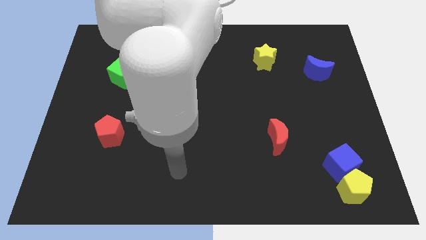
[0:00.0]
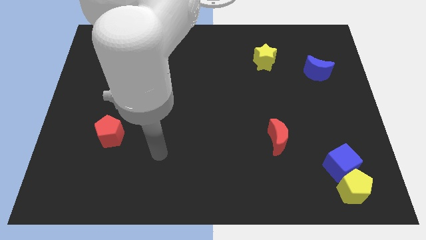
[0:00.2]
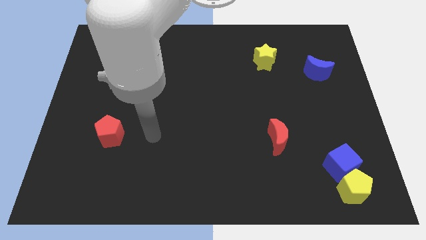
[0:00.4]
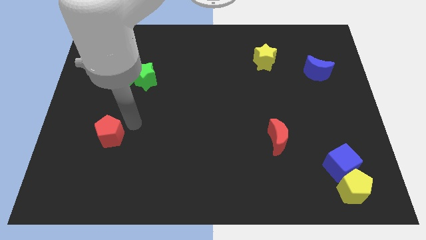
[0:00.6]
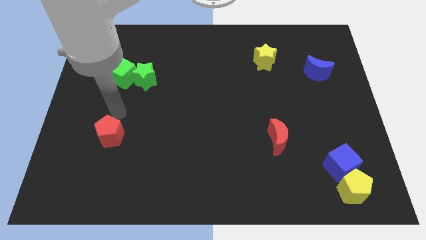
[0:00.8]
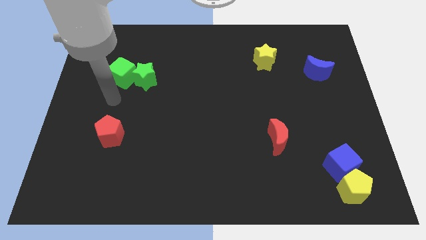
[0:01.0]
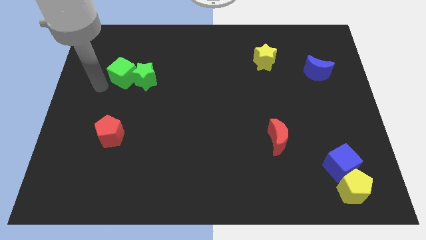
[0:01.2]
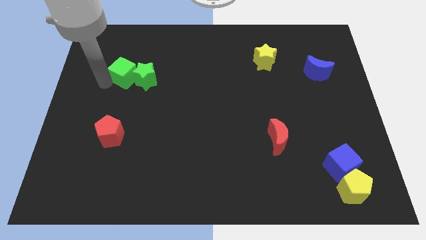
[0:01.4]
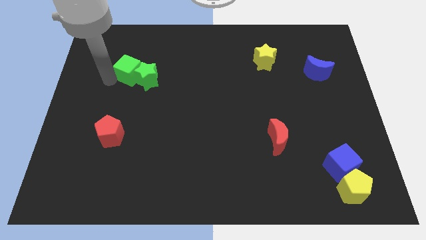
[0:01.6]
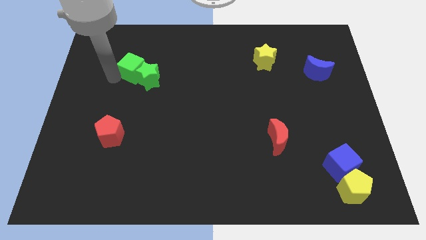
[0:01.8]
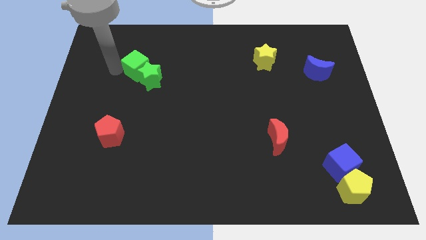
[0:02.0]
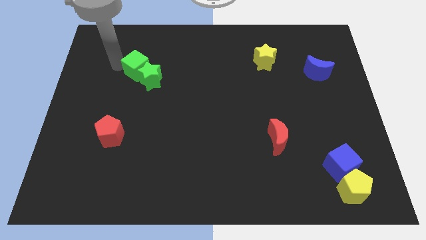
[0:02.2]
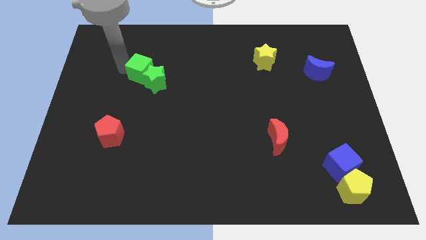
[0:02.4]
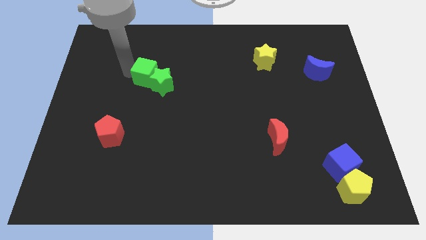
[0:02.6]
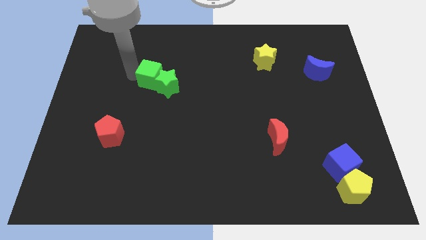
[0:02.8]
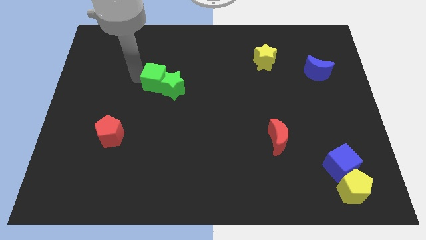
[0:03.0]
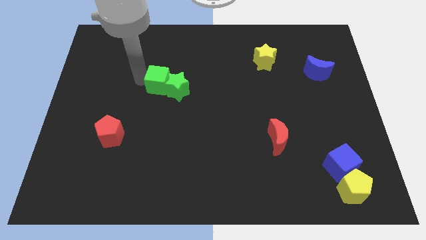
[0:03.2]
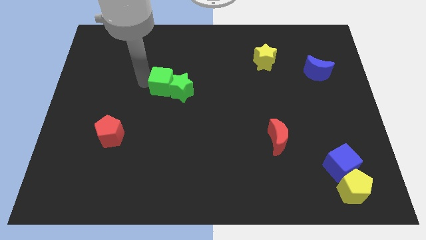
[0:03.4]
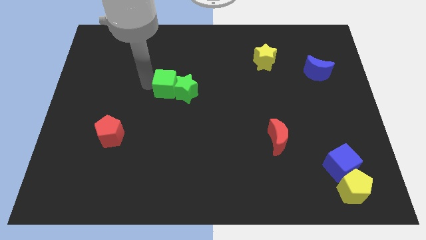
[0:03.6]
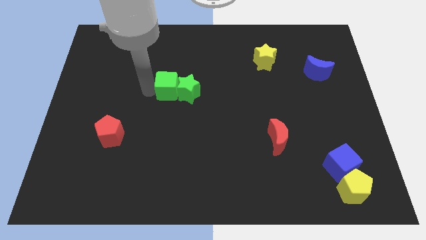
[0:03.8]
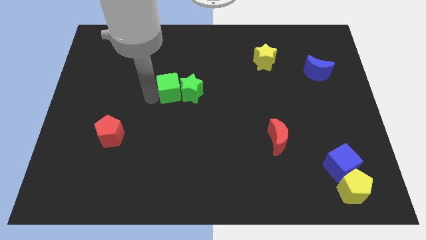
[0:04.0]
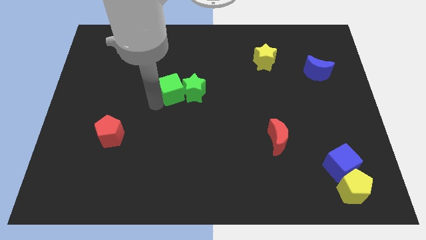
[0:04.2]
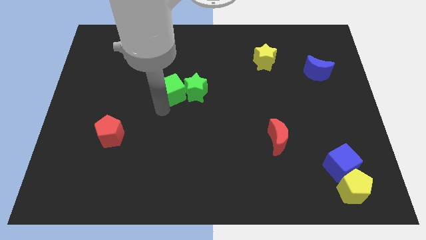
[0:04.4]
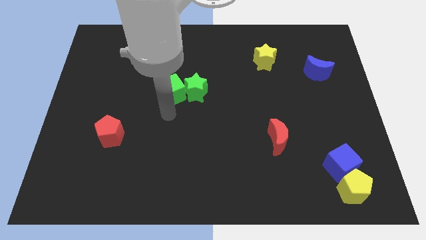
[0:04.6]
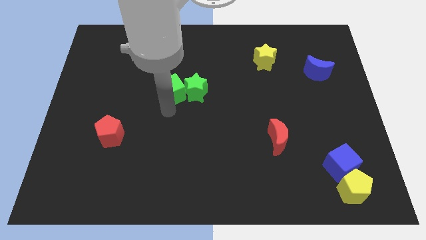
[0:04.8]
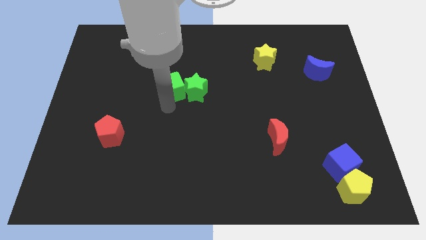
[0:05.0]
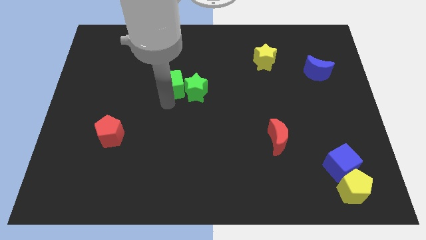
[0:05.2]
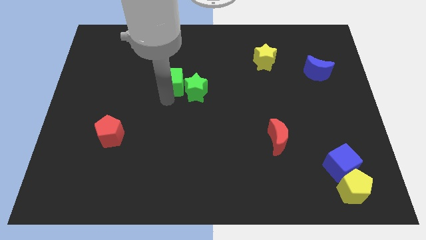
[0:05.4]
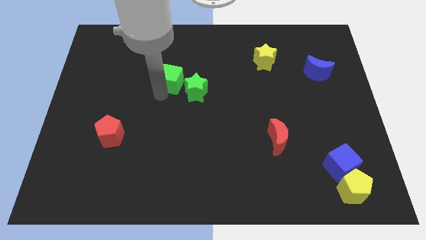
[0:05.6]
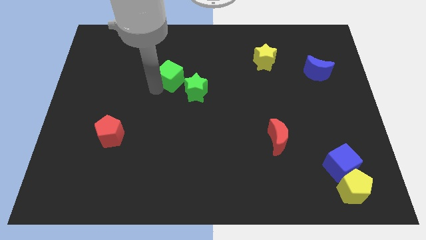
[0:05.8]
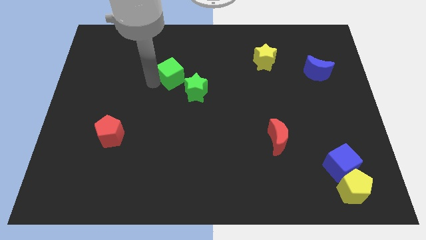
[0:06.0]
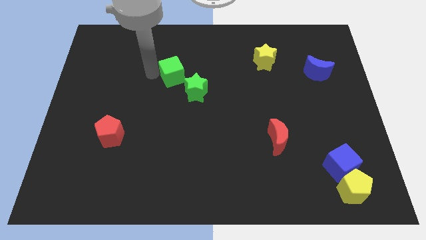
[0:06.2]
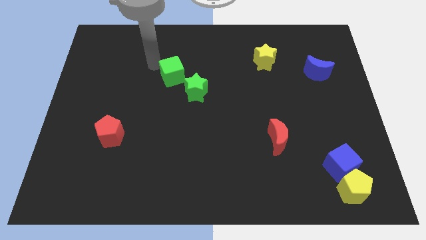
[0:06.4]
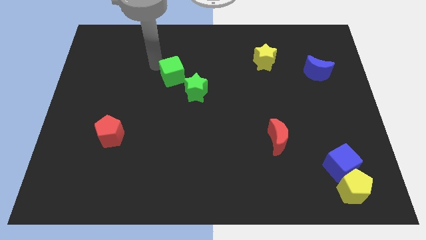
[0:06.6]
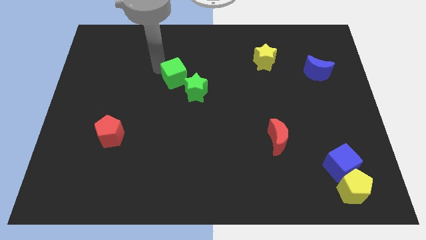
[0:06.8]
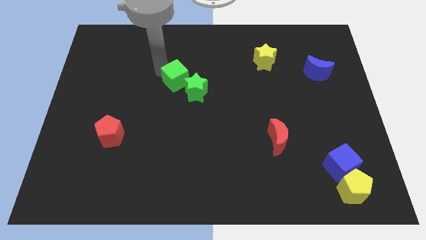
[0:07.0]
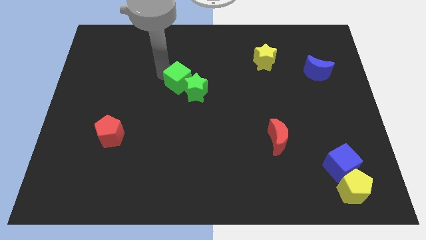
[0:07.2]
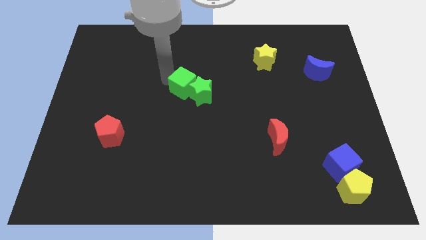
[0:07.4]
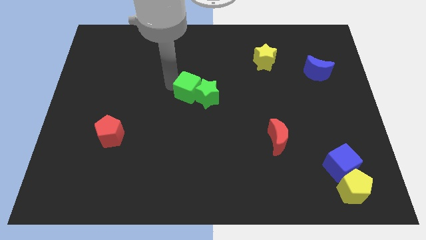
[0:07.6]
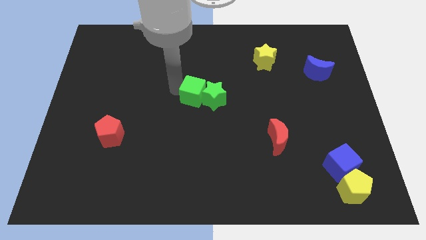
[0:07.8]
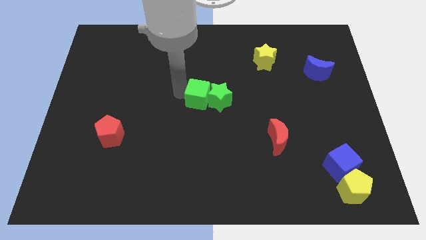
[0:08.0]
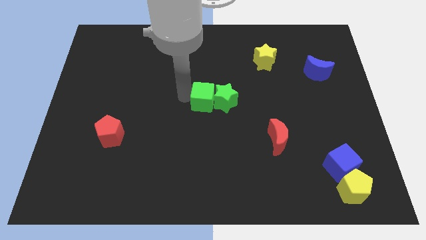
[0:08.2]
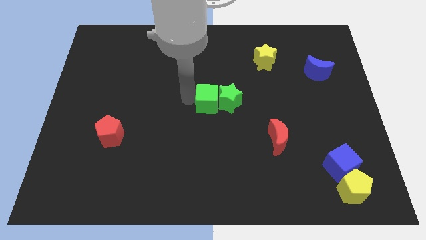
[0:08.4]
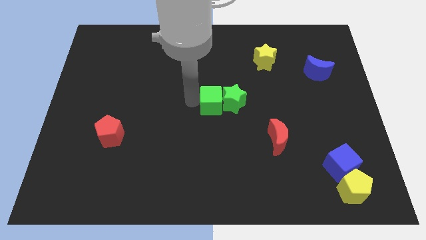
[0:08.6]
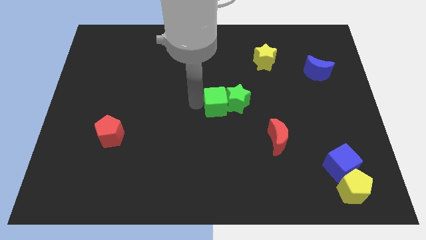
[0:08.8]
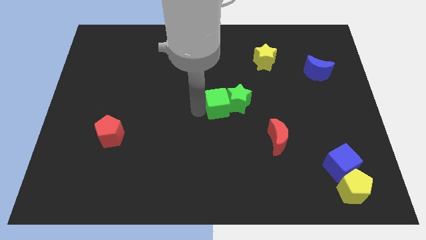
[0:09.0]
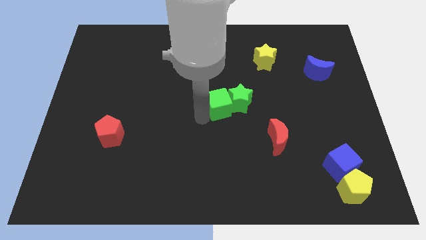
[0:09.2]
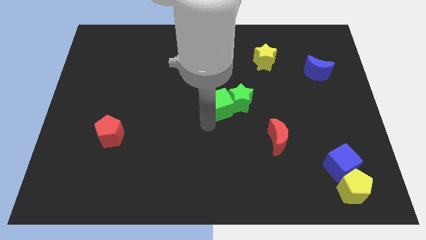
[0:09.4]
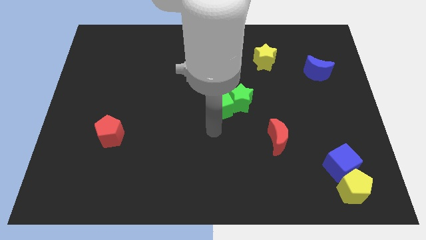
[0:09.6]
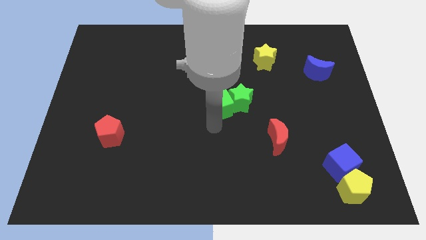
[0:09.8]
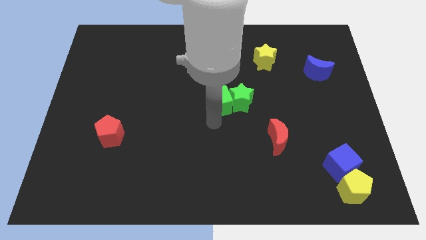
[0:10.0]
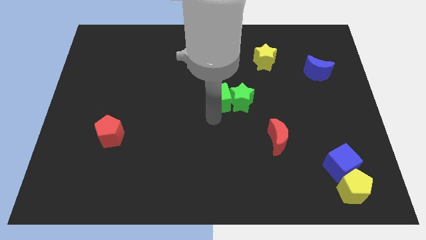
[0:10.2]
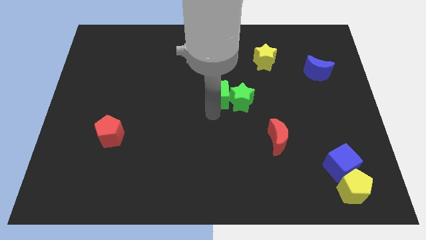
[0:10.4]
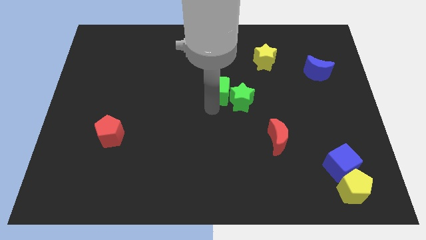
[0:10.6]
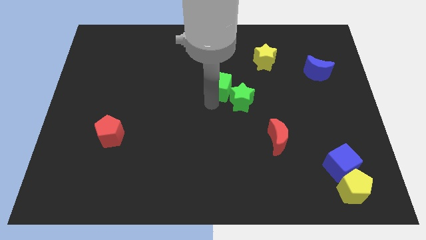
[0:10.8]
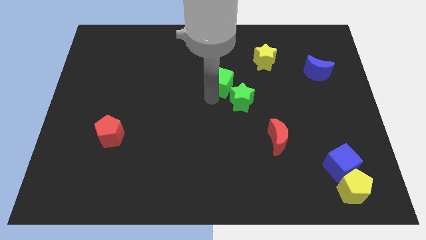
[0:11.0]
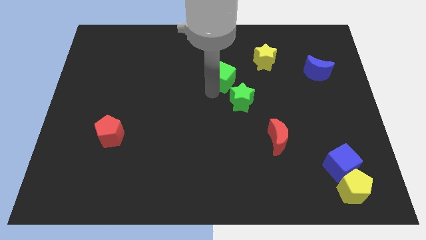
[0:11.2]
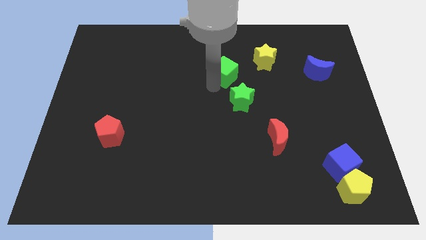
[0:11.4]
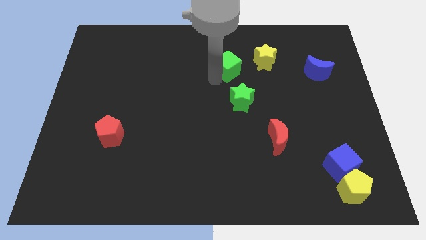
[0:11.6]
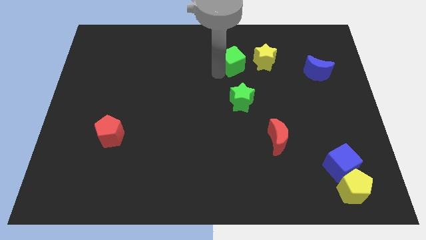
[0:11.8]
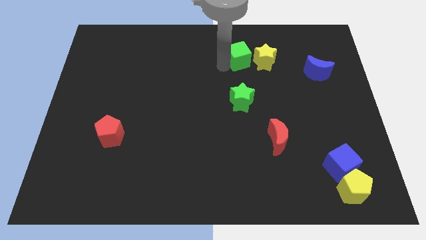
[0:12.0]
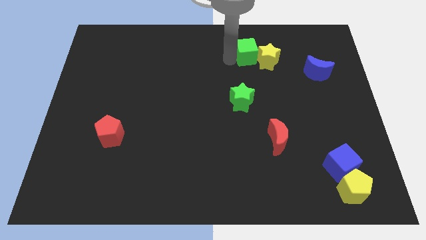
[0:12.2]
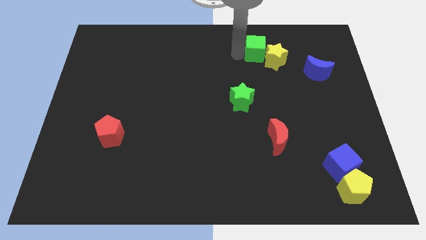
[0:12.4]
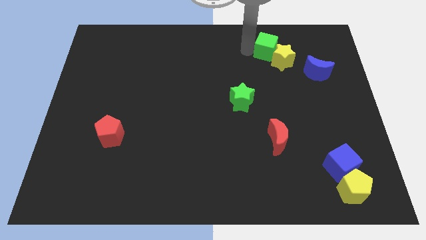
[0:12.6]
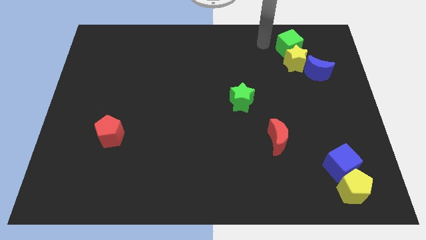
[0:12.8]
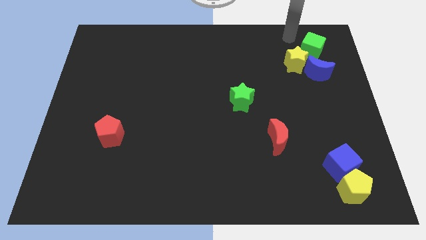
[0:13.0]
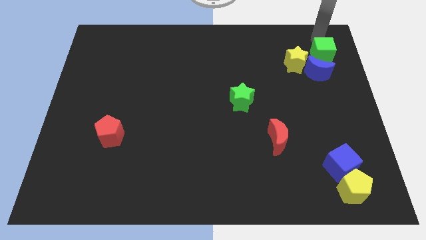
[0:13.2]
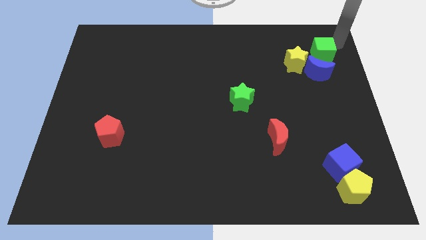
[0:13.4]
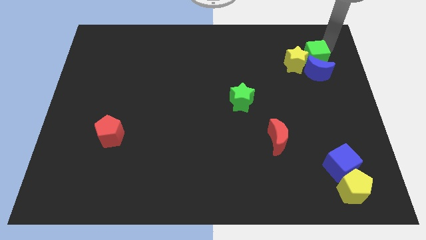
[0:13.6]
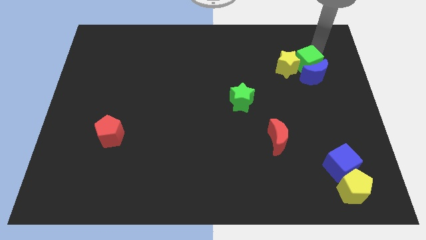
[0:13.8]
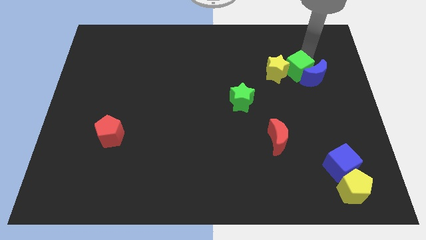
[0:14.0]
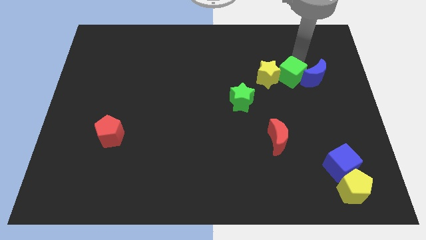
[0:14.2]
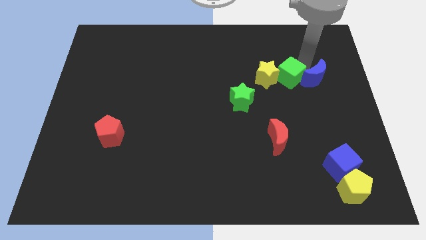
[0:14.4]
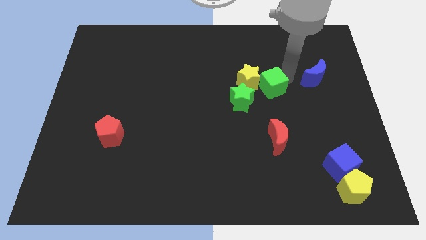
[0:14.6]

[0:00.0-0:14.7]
slide the green cube above the red moon
